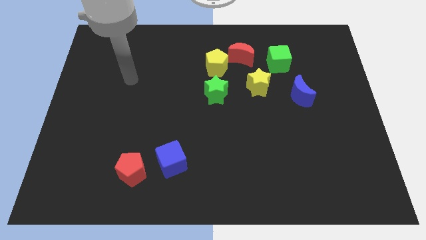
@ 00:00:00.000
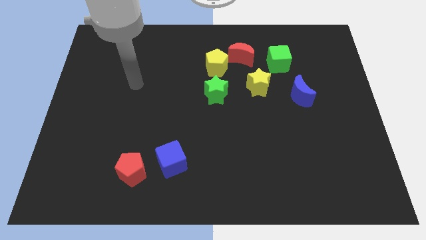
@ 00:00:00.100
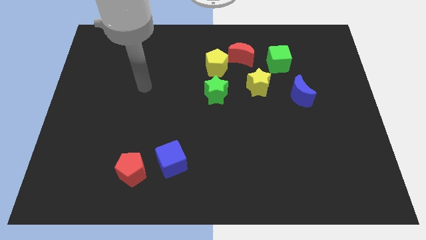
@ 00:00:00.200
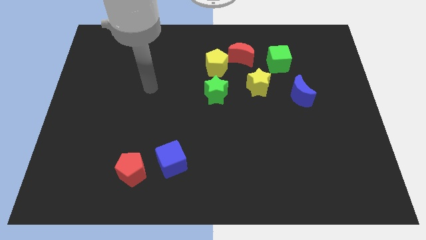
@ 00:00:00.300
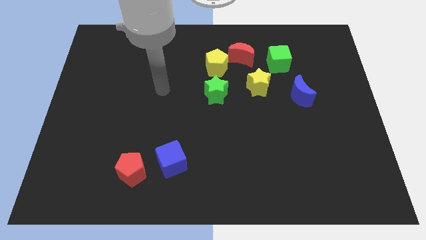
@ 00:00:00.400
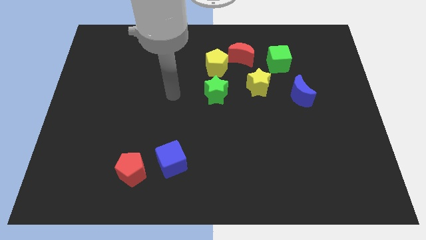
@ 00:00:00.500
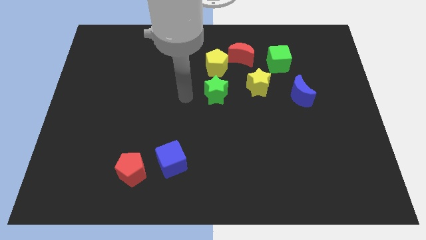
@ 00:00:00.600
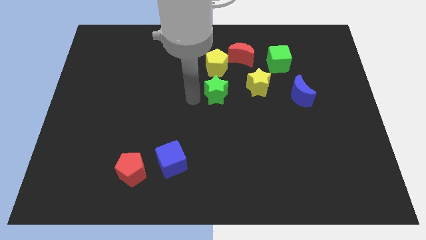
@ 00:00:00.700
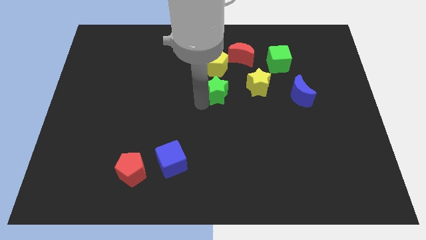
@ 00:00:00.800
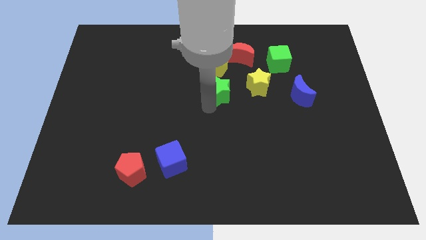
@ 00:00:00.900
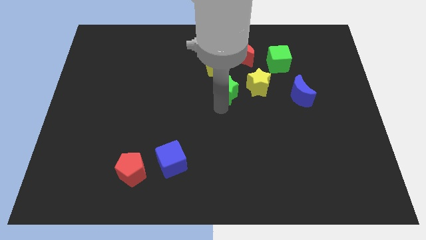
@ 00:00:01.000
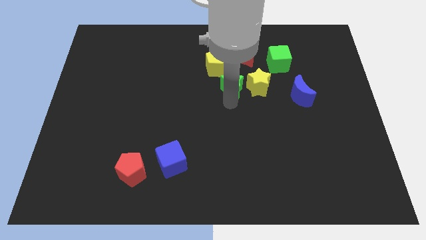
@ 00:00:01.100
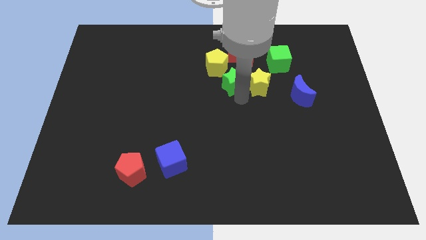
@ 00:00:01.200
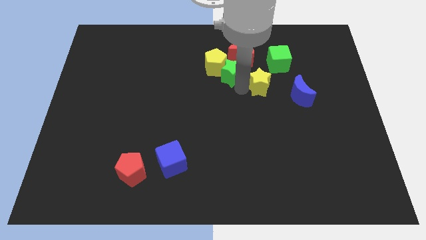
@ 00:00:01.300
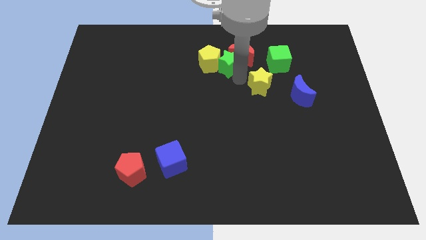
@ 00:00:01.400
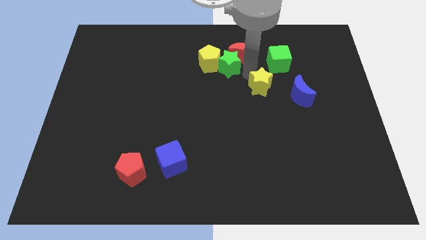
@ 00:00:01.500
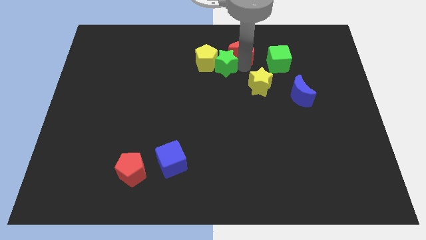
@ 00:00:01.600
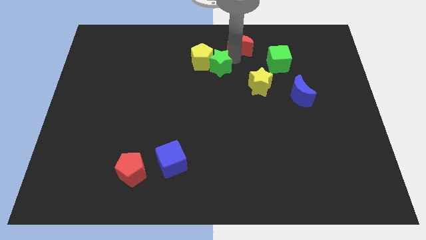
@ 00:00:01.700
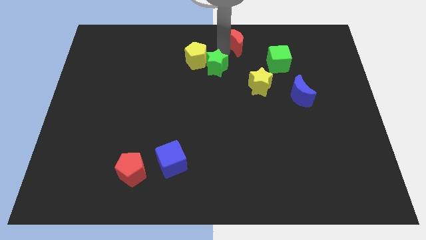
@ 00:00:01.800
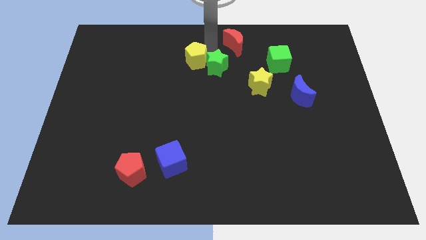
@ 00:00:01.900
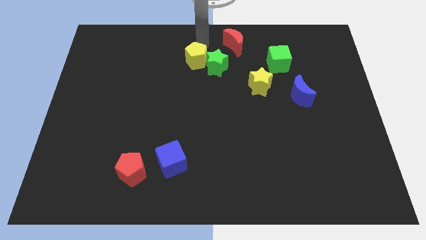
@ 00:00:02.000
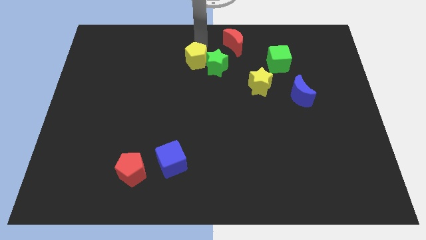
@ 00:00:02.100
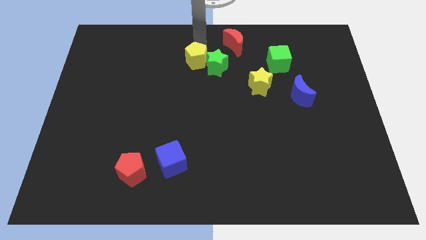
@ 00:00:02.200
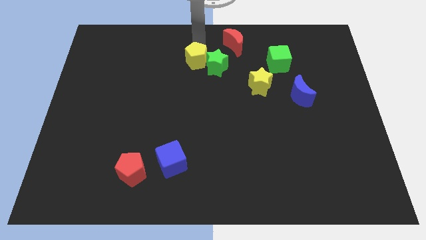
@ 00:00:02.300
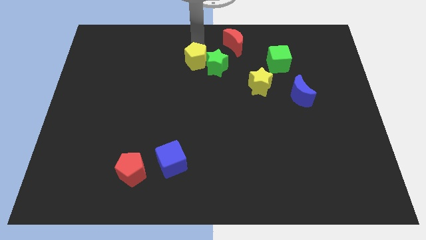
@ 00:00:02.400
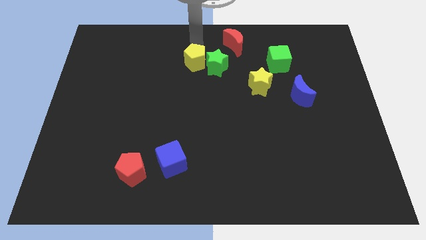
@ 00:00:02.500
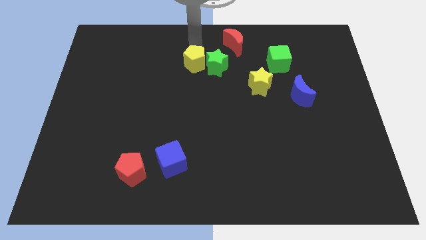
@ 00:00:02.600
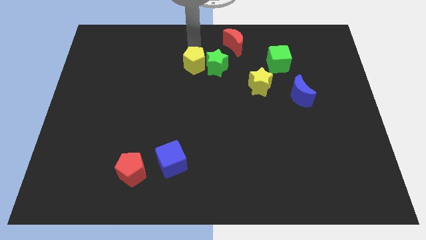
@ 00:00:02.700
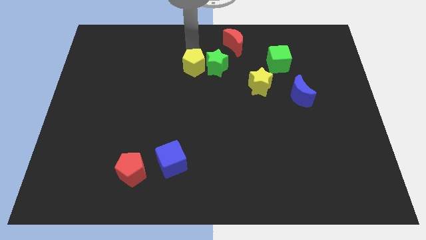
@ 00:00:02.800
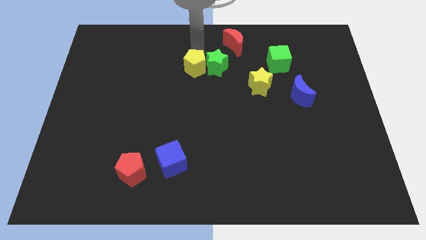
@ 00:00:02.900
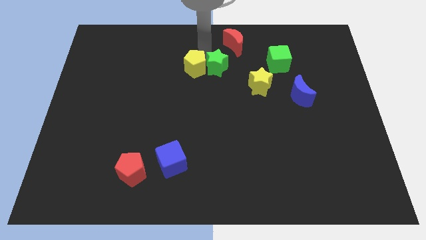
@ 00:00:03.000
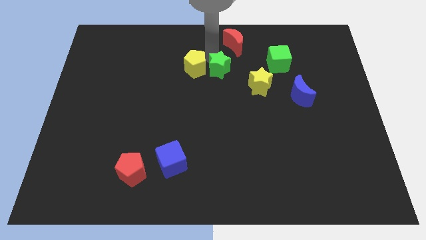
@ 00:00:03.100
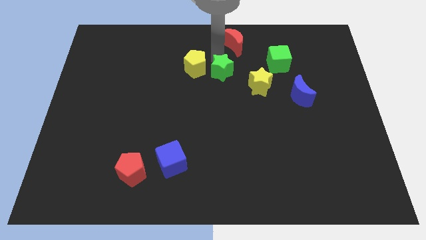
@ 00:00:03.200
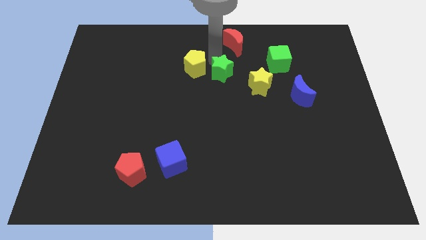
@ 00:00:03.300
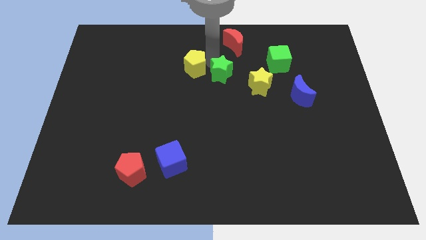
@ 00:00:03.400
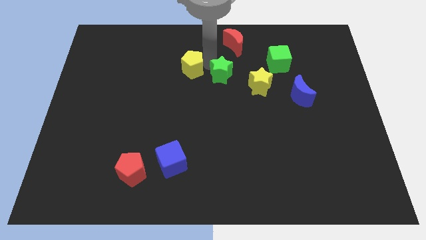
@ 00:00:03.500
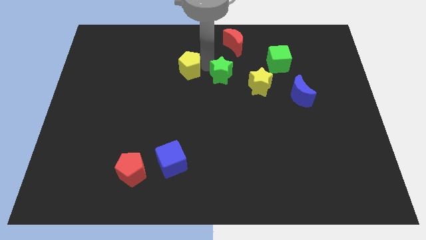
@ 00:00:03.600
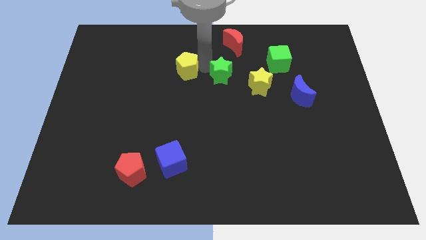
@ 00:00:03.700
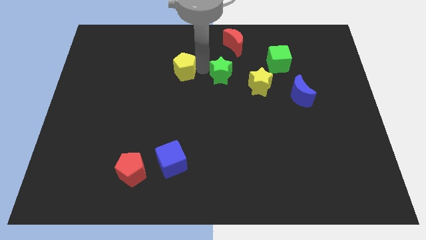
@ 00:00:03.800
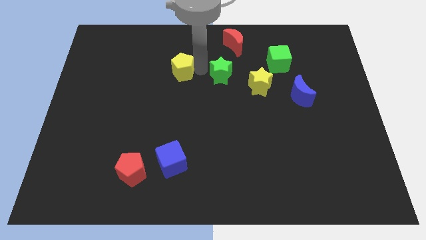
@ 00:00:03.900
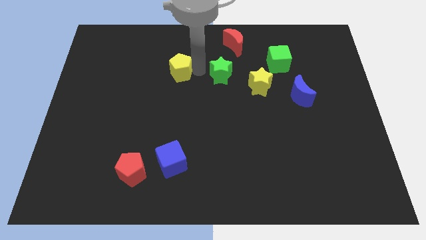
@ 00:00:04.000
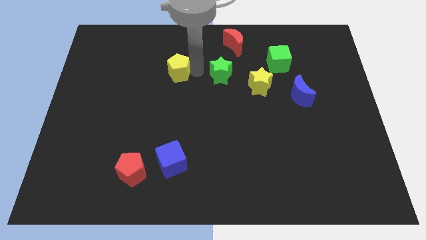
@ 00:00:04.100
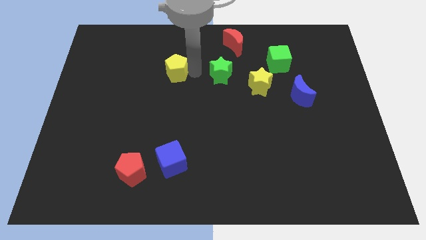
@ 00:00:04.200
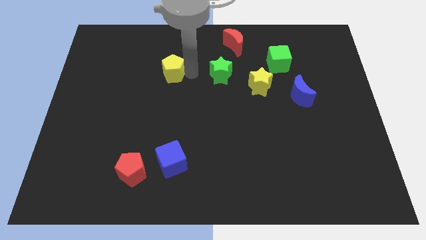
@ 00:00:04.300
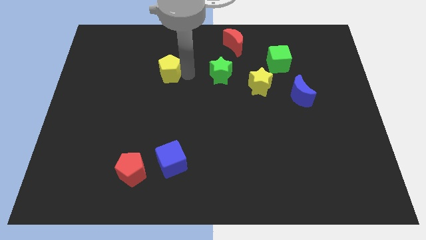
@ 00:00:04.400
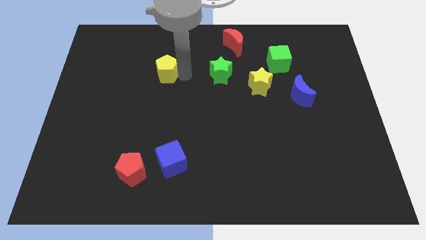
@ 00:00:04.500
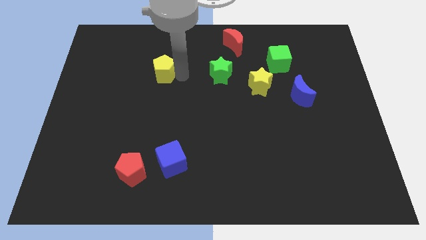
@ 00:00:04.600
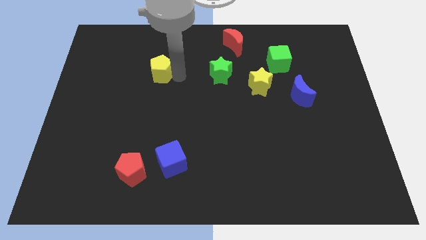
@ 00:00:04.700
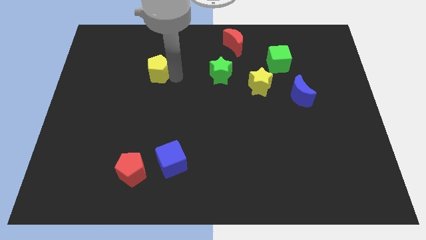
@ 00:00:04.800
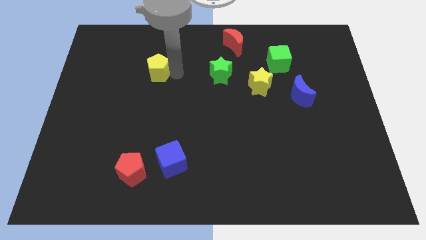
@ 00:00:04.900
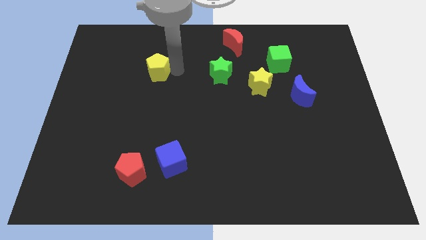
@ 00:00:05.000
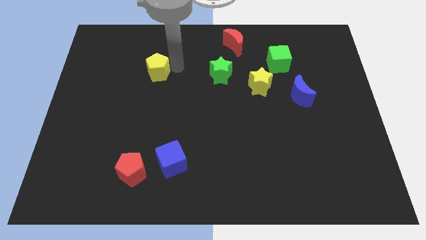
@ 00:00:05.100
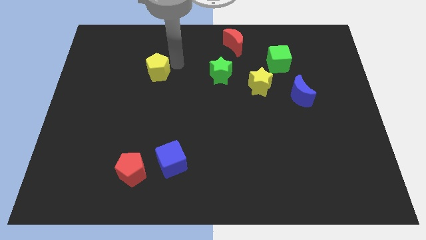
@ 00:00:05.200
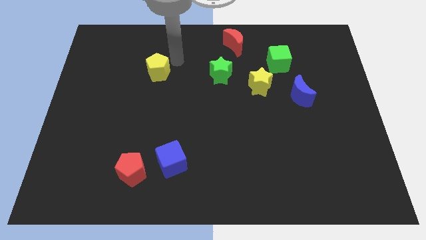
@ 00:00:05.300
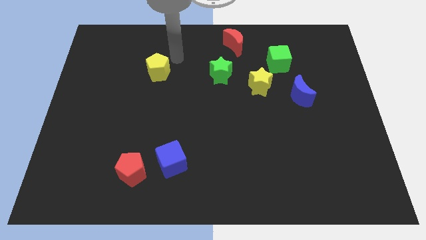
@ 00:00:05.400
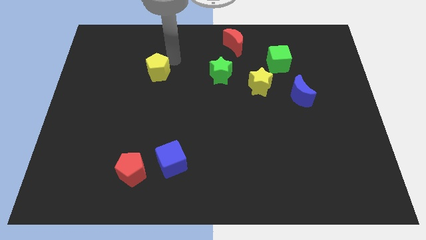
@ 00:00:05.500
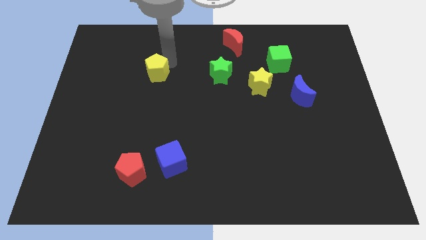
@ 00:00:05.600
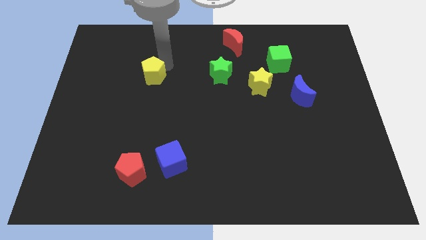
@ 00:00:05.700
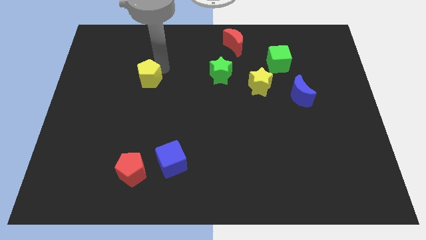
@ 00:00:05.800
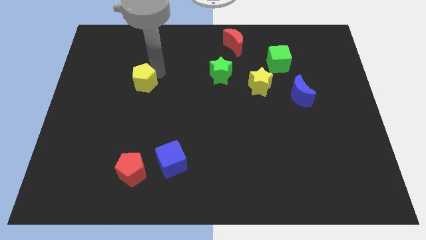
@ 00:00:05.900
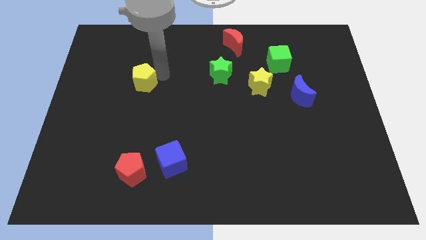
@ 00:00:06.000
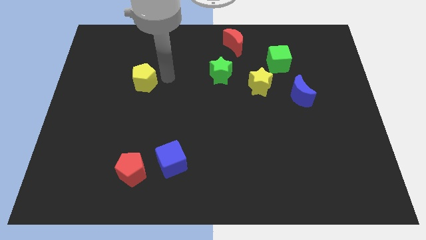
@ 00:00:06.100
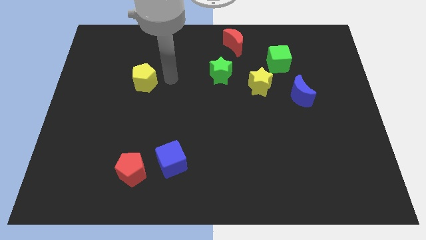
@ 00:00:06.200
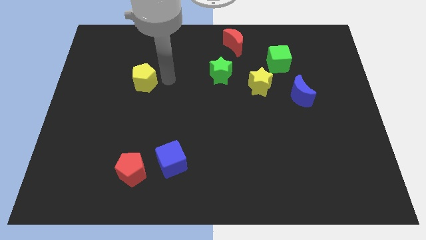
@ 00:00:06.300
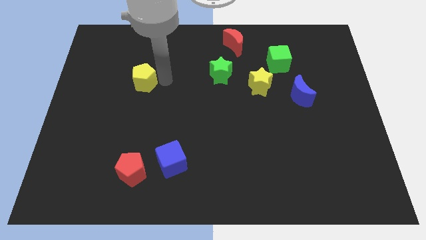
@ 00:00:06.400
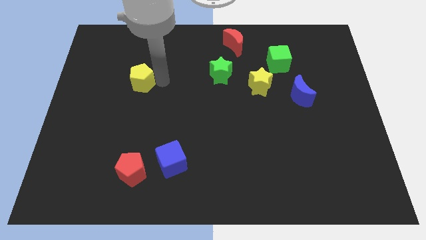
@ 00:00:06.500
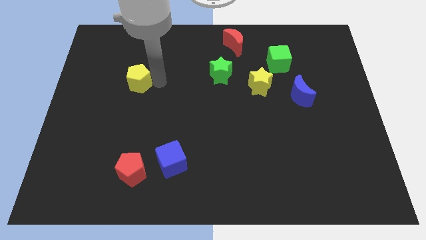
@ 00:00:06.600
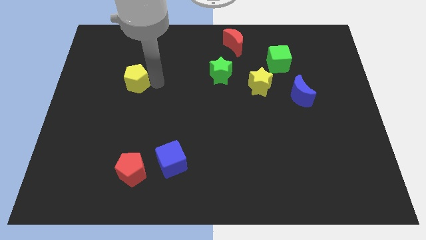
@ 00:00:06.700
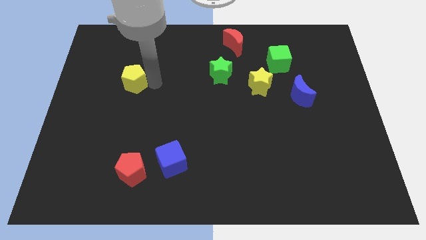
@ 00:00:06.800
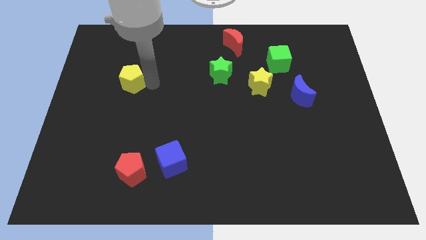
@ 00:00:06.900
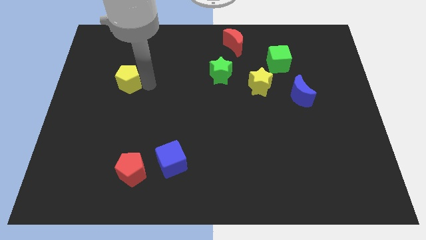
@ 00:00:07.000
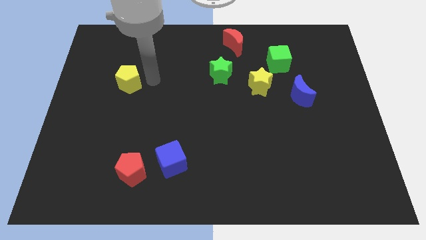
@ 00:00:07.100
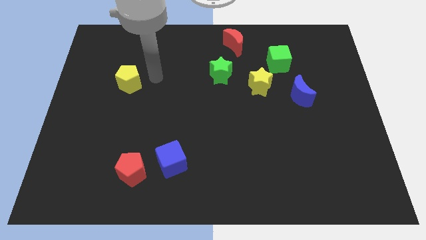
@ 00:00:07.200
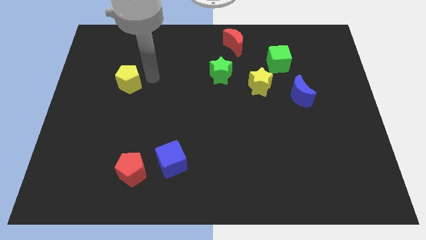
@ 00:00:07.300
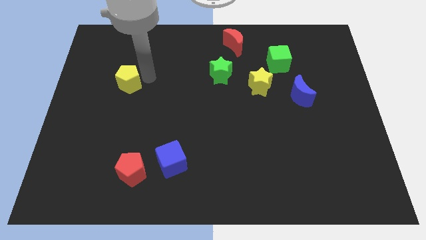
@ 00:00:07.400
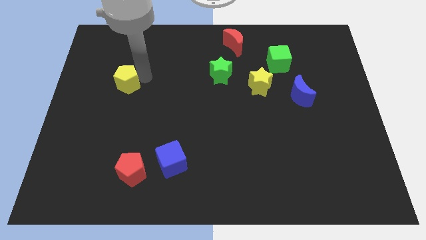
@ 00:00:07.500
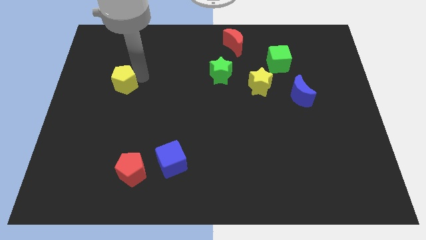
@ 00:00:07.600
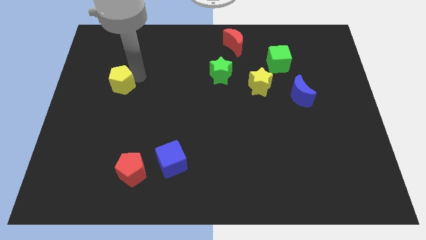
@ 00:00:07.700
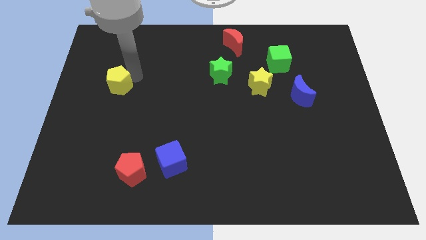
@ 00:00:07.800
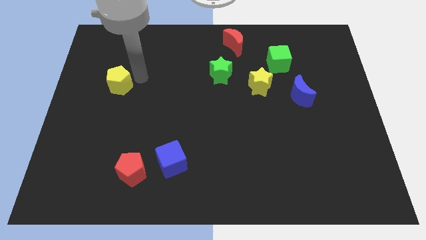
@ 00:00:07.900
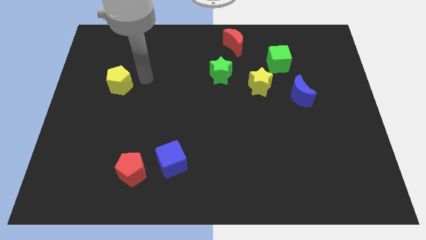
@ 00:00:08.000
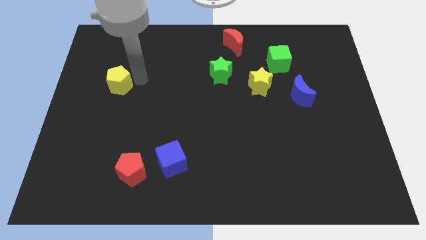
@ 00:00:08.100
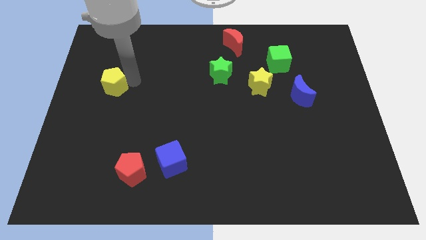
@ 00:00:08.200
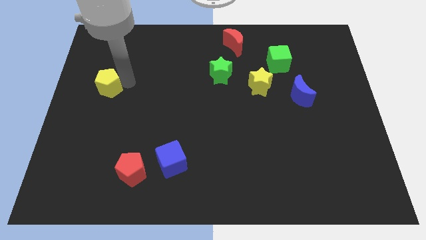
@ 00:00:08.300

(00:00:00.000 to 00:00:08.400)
move the yellow pentagon to the left side
